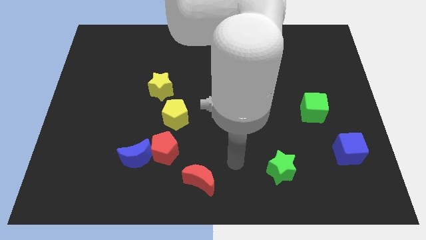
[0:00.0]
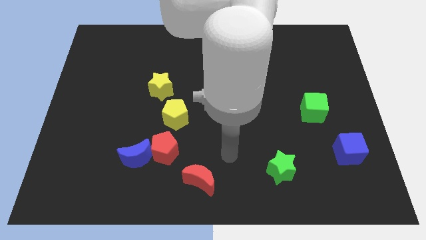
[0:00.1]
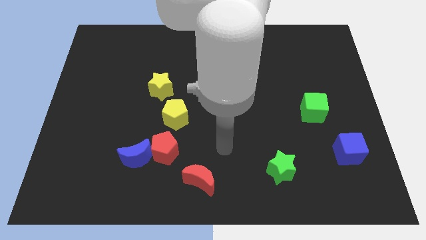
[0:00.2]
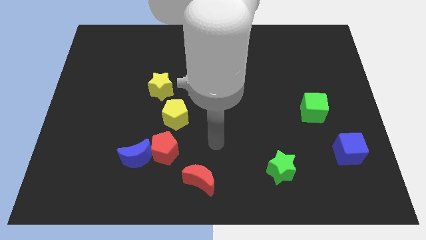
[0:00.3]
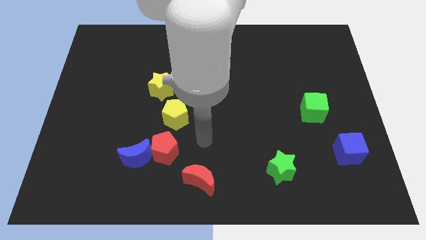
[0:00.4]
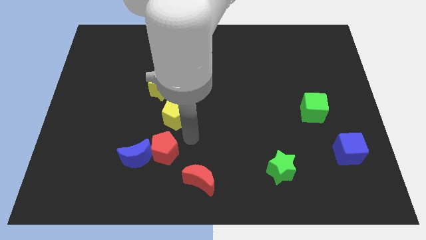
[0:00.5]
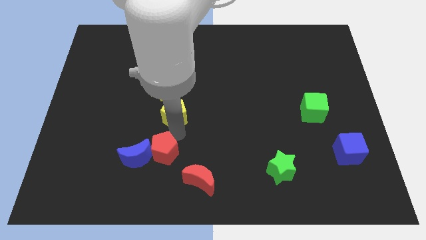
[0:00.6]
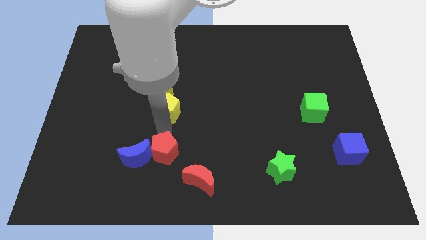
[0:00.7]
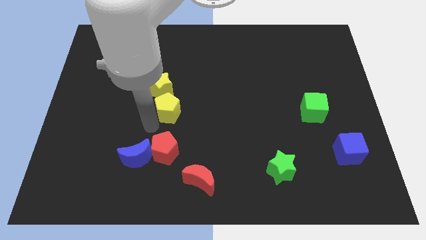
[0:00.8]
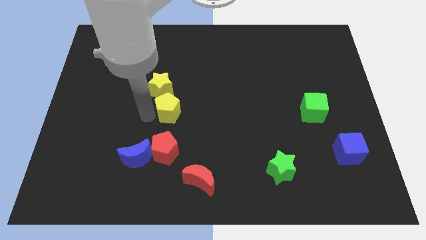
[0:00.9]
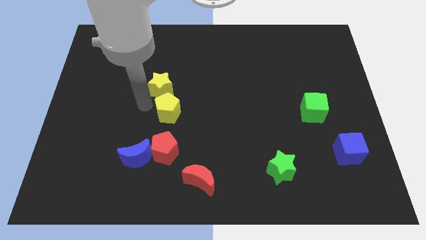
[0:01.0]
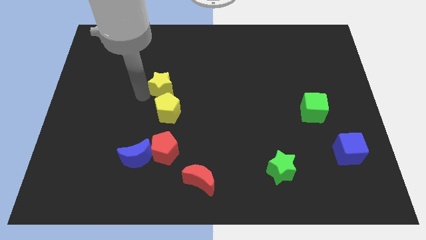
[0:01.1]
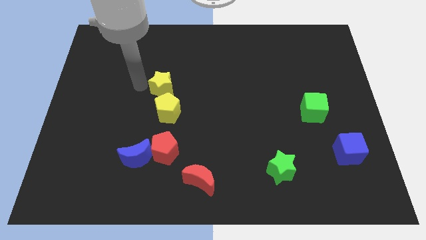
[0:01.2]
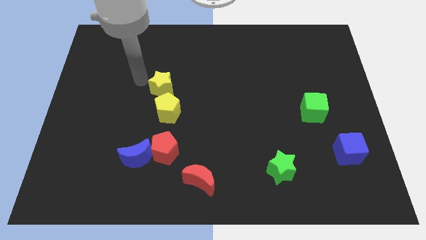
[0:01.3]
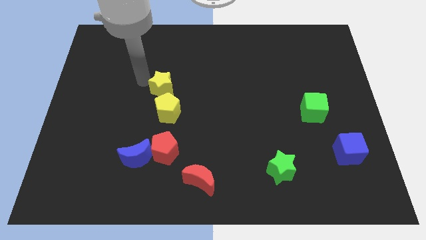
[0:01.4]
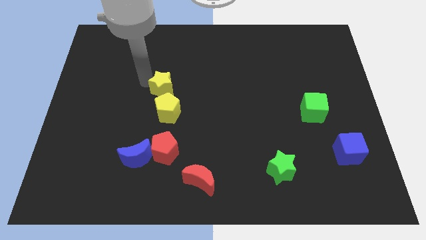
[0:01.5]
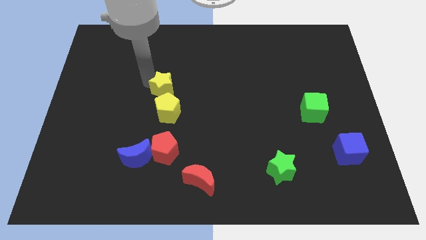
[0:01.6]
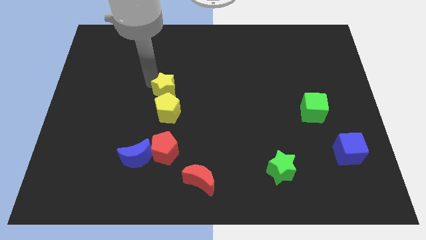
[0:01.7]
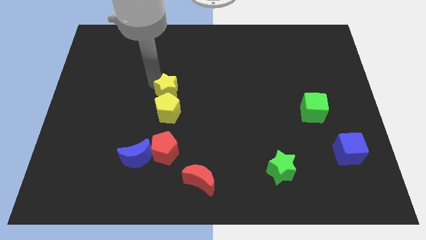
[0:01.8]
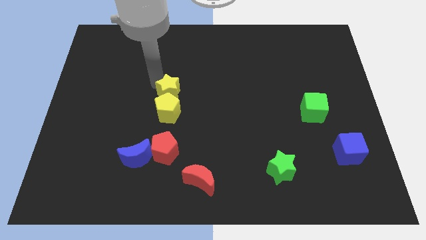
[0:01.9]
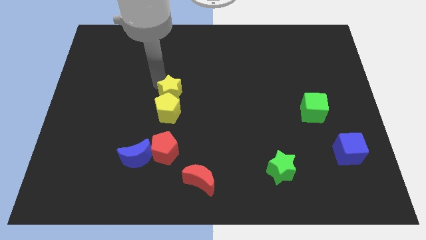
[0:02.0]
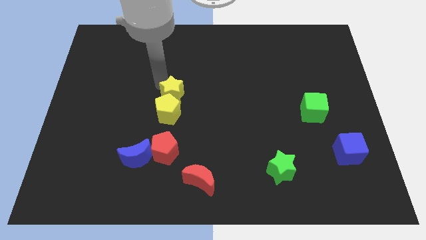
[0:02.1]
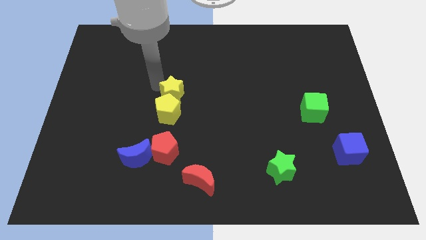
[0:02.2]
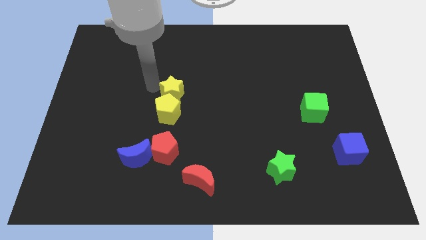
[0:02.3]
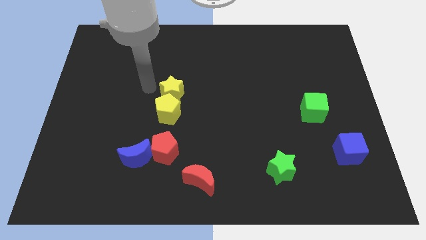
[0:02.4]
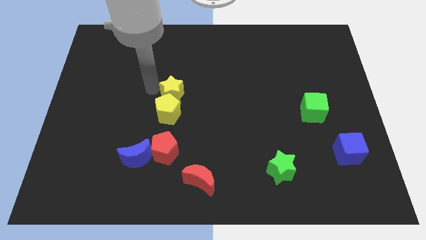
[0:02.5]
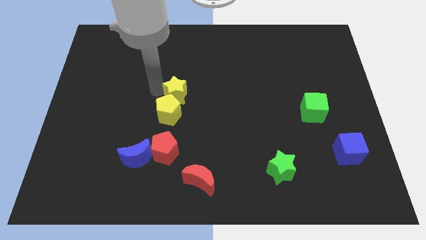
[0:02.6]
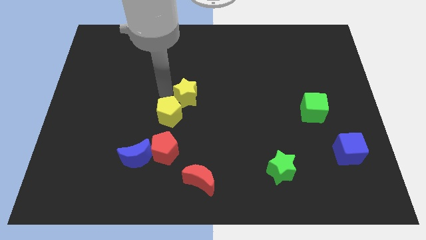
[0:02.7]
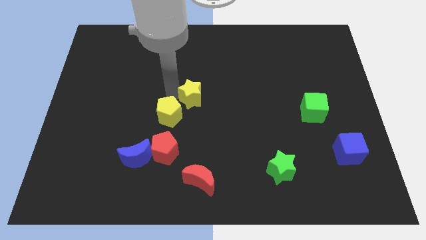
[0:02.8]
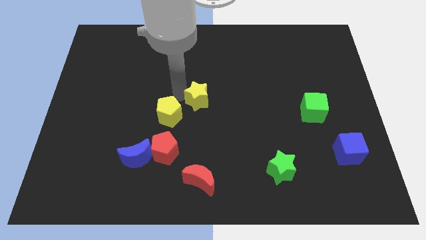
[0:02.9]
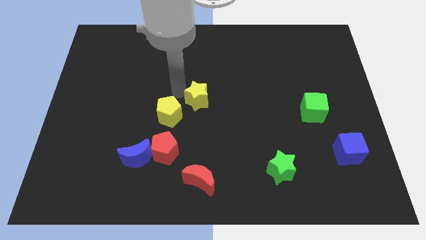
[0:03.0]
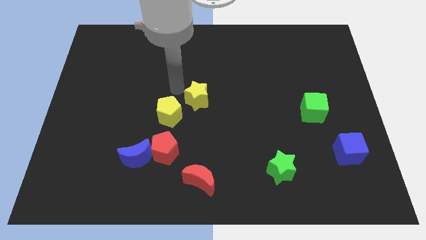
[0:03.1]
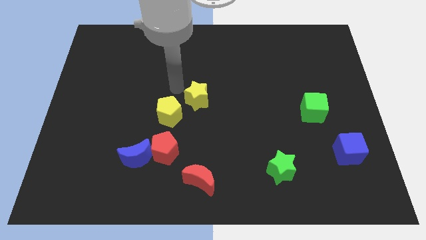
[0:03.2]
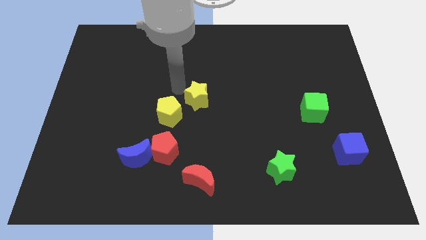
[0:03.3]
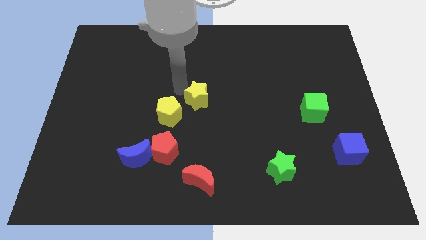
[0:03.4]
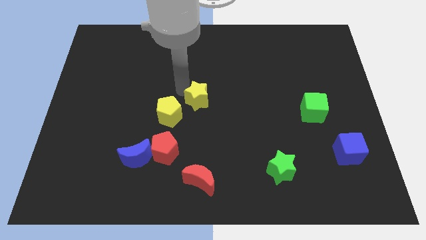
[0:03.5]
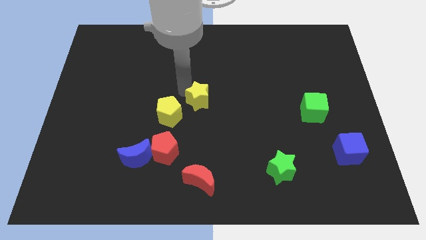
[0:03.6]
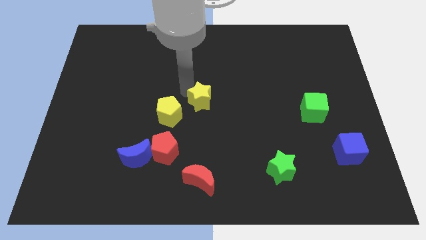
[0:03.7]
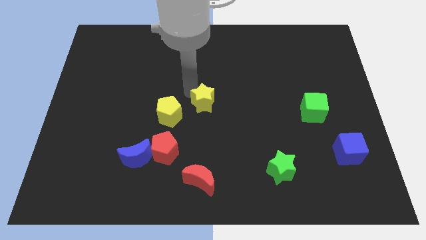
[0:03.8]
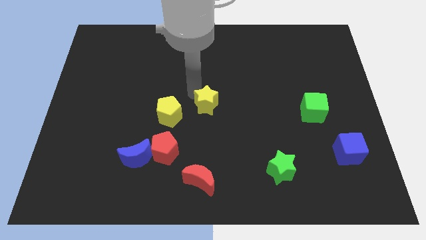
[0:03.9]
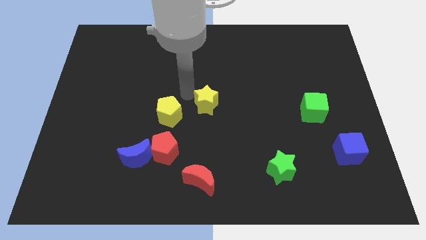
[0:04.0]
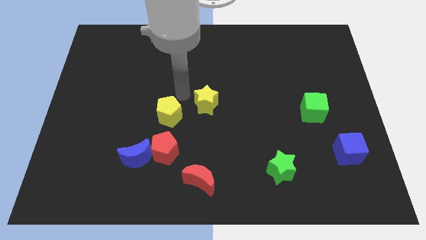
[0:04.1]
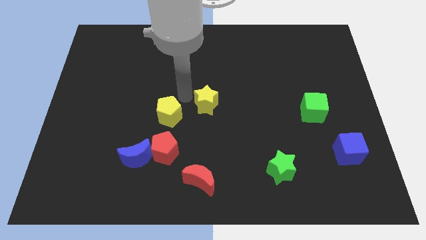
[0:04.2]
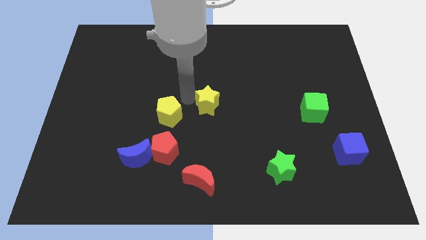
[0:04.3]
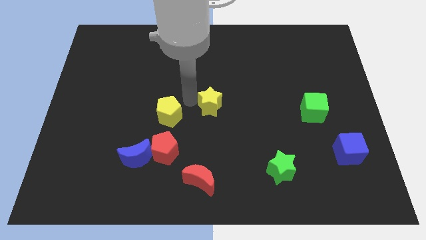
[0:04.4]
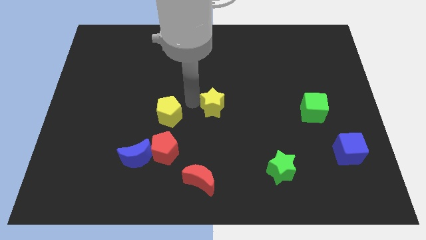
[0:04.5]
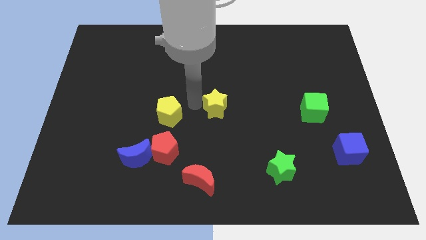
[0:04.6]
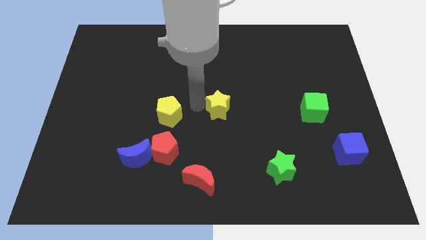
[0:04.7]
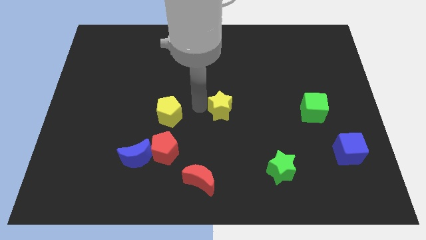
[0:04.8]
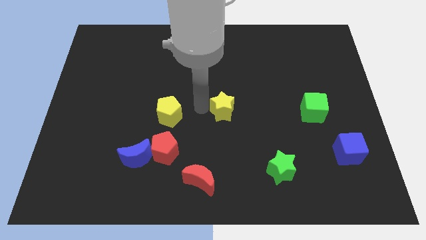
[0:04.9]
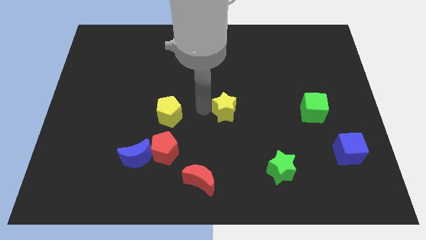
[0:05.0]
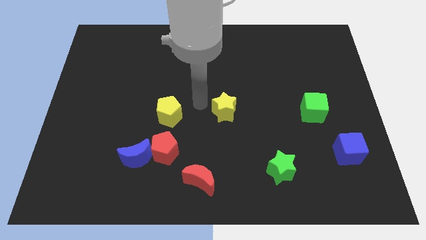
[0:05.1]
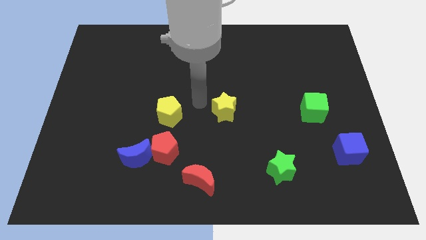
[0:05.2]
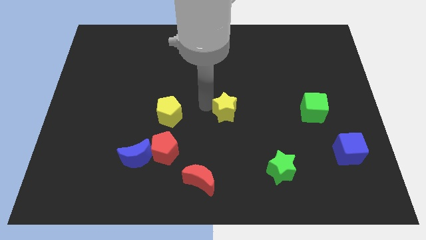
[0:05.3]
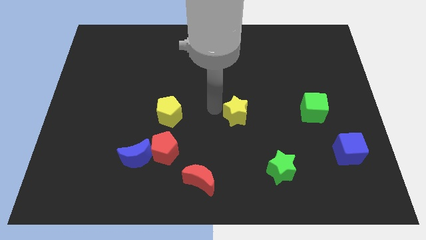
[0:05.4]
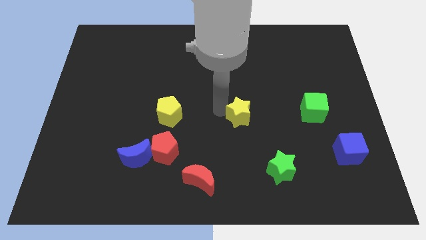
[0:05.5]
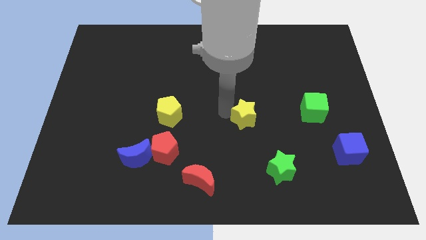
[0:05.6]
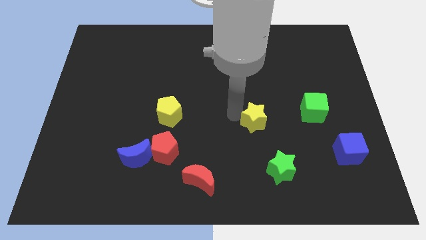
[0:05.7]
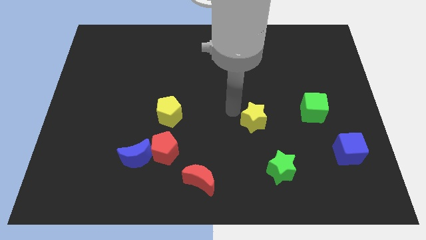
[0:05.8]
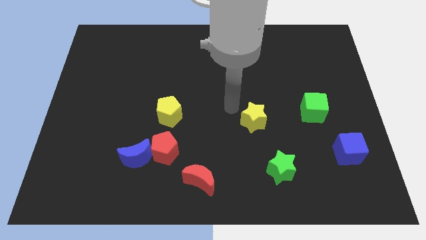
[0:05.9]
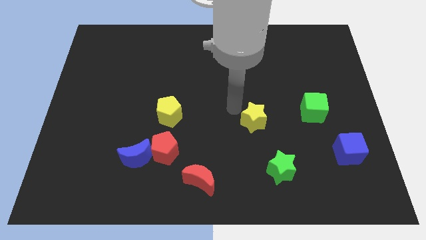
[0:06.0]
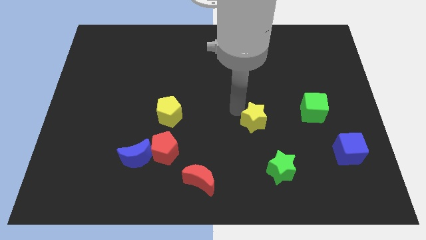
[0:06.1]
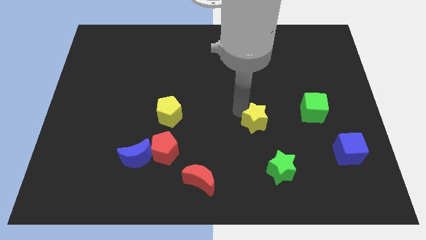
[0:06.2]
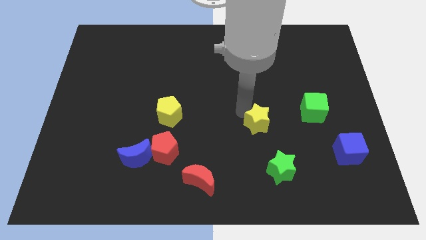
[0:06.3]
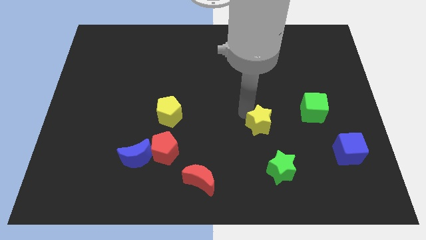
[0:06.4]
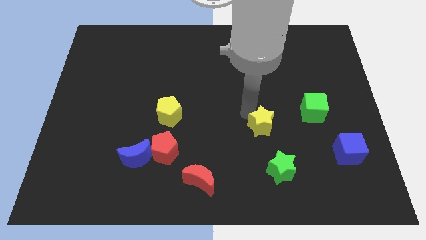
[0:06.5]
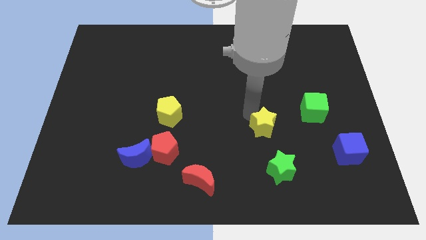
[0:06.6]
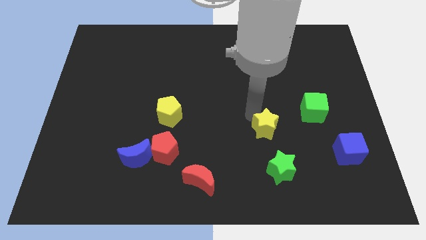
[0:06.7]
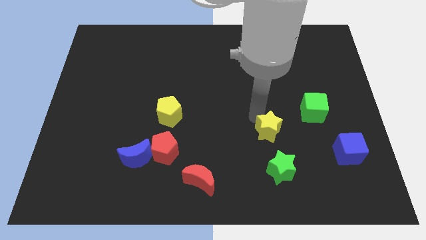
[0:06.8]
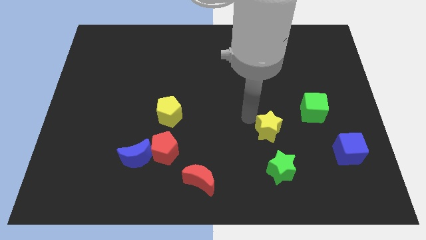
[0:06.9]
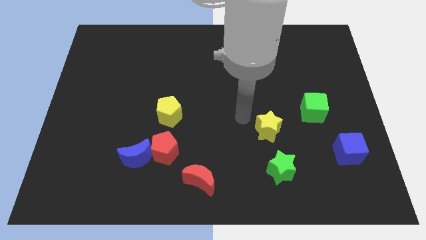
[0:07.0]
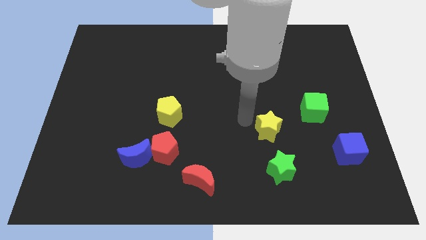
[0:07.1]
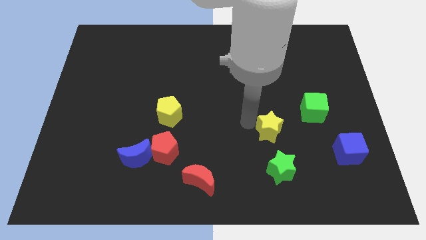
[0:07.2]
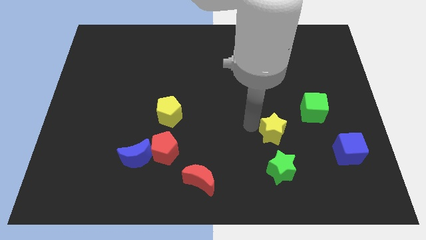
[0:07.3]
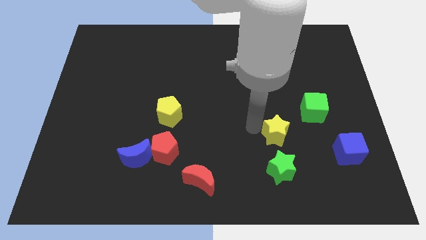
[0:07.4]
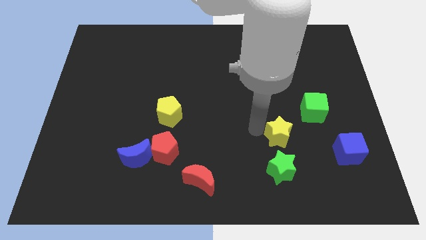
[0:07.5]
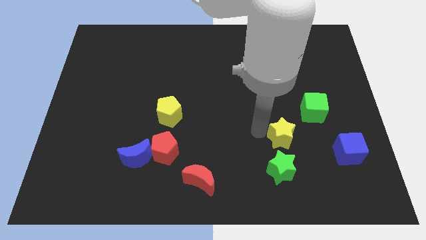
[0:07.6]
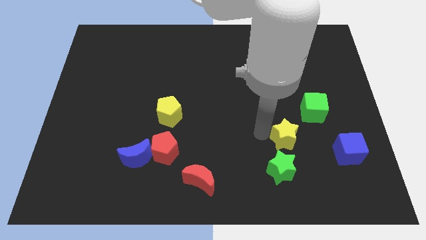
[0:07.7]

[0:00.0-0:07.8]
push the yellow star diagonally up and to the right of the green star
